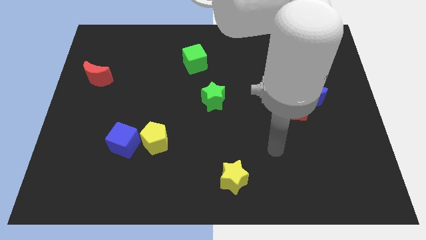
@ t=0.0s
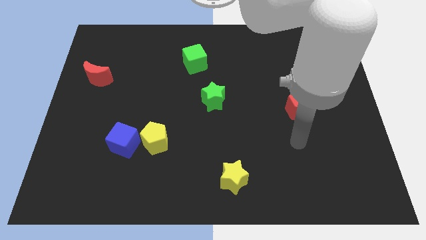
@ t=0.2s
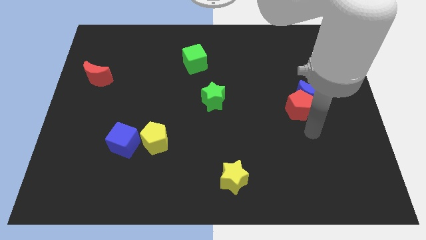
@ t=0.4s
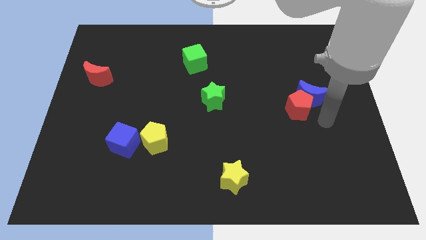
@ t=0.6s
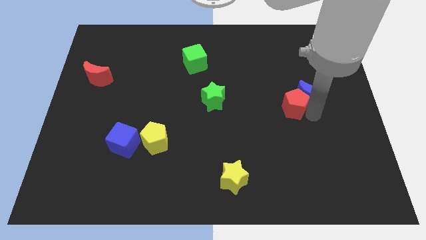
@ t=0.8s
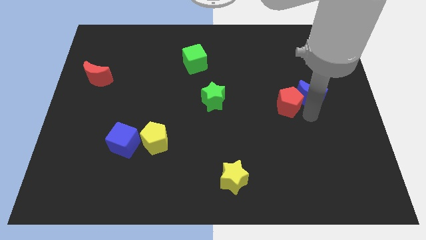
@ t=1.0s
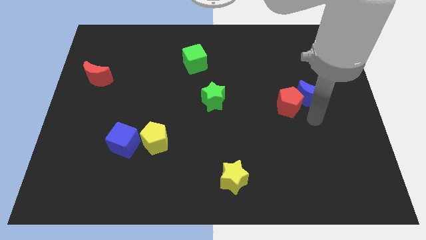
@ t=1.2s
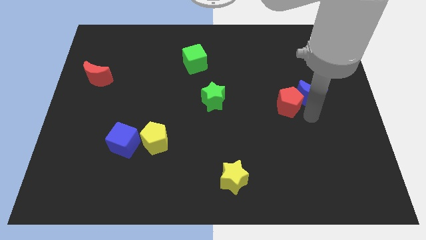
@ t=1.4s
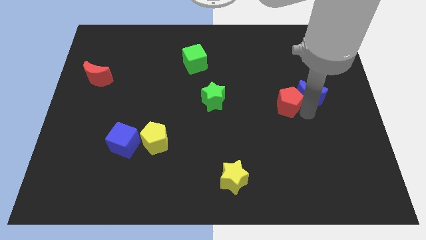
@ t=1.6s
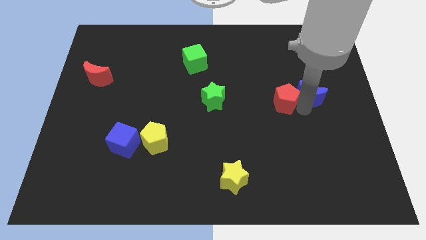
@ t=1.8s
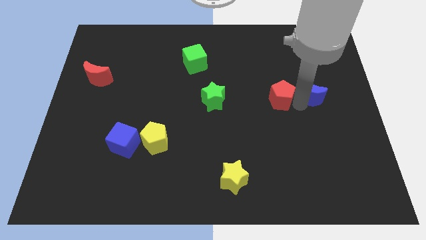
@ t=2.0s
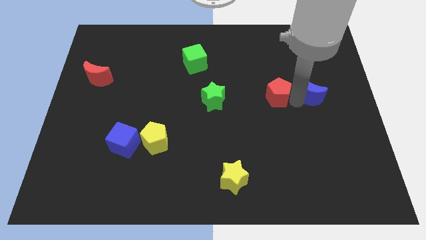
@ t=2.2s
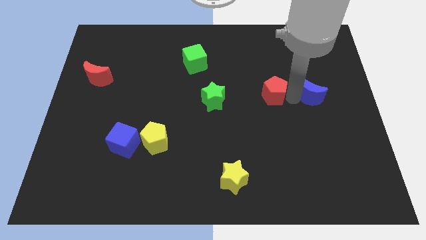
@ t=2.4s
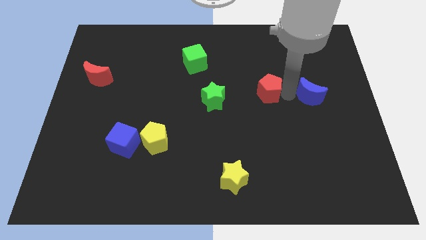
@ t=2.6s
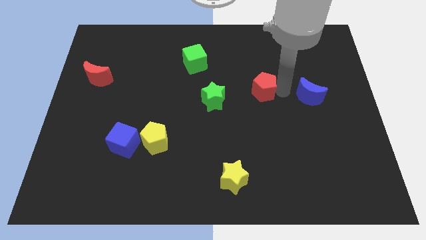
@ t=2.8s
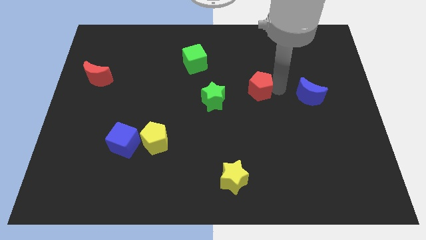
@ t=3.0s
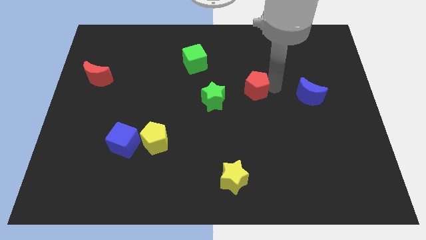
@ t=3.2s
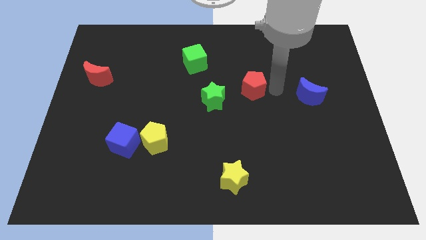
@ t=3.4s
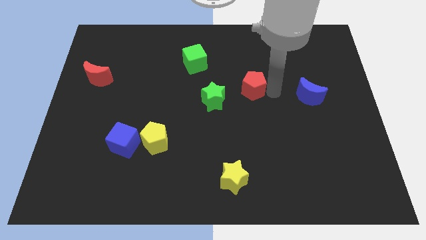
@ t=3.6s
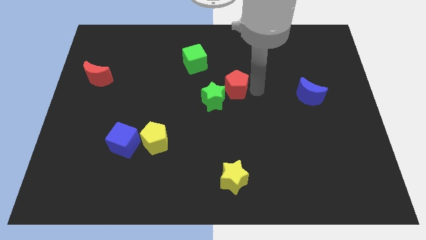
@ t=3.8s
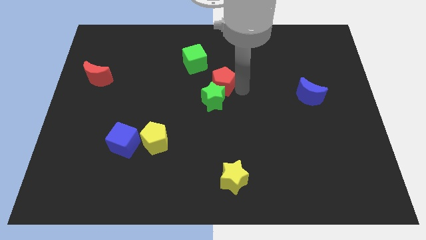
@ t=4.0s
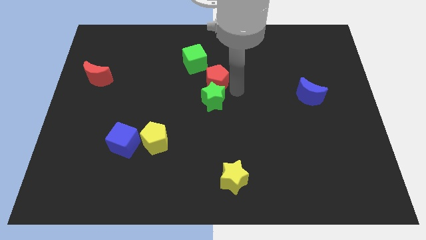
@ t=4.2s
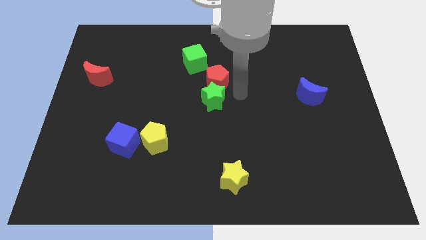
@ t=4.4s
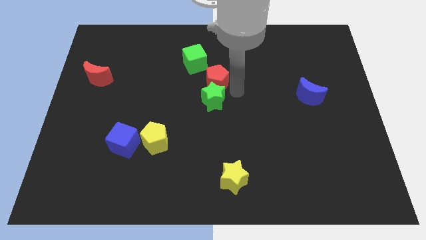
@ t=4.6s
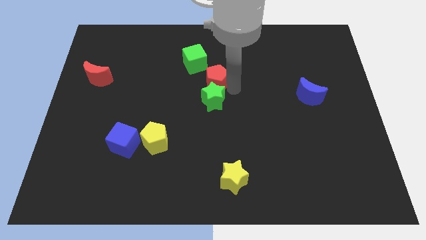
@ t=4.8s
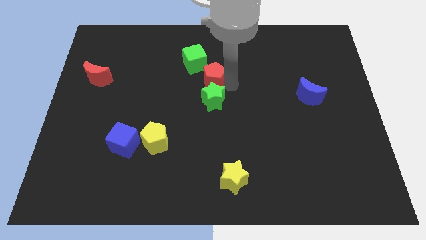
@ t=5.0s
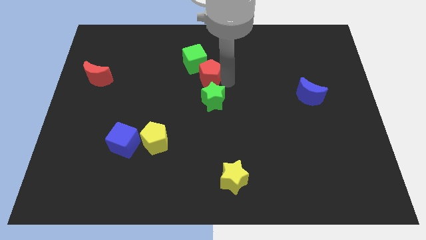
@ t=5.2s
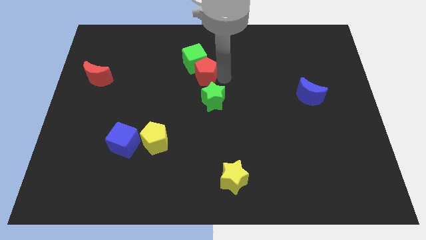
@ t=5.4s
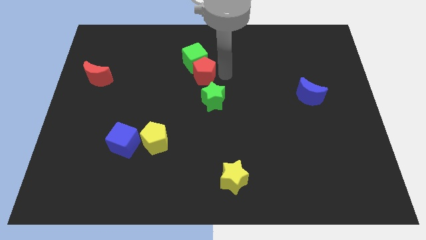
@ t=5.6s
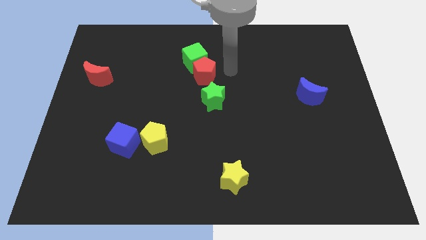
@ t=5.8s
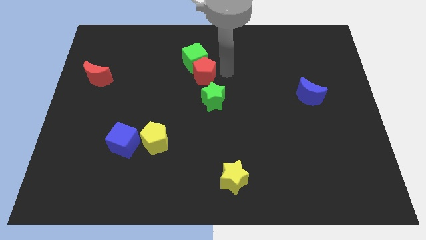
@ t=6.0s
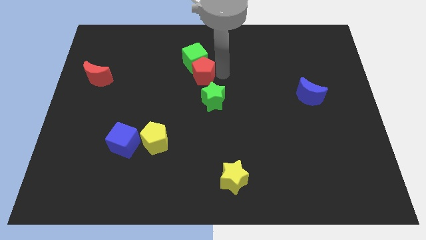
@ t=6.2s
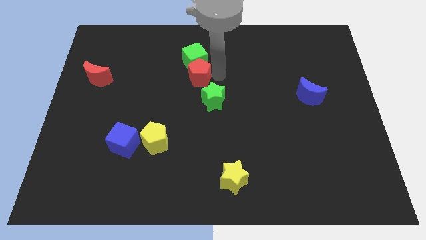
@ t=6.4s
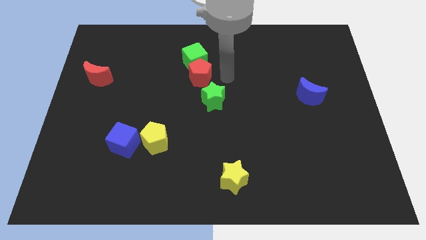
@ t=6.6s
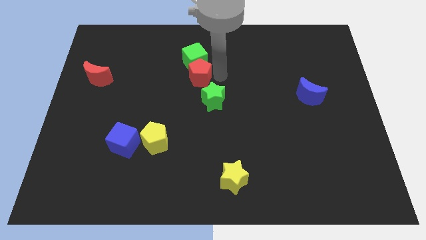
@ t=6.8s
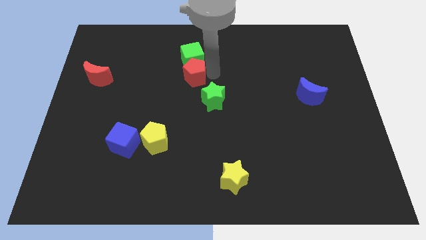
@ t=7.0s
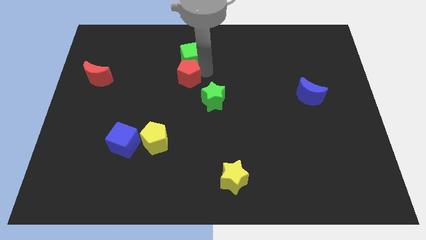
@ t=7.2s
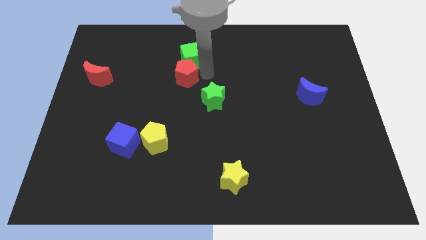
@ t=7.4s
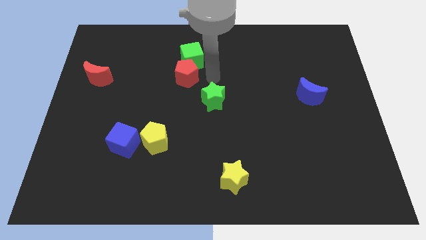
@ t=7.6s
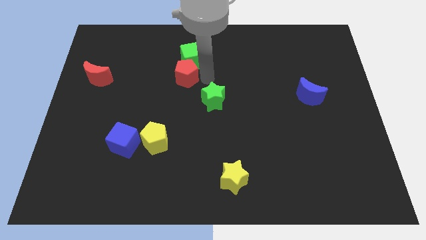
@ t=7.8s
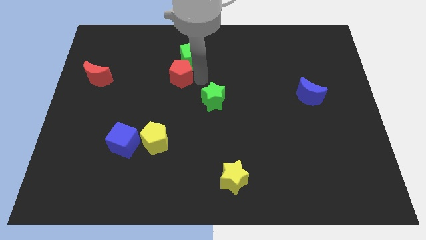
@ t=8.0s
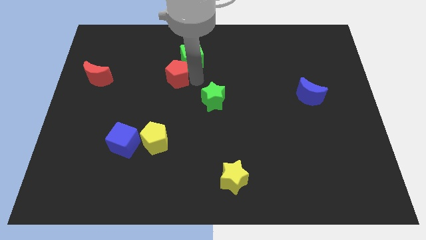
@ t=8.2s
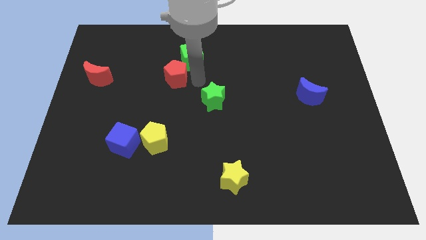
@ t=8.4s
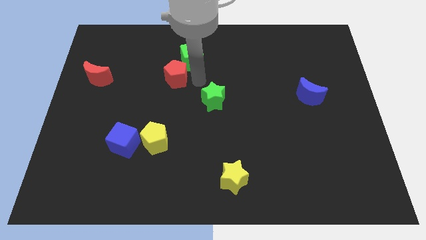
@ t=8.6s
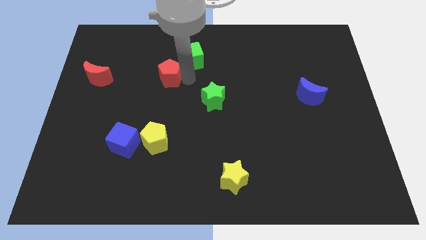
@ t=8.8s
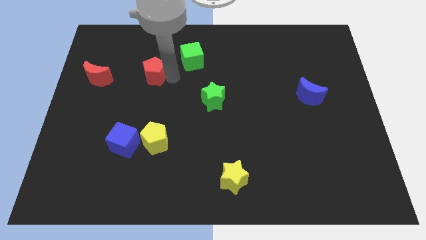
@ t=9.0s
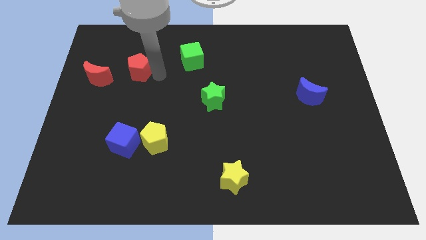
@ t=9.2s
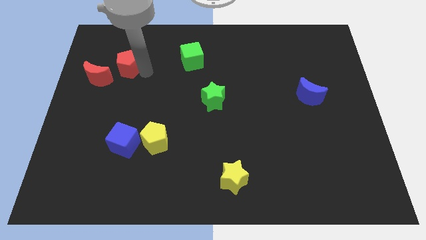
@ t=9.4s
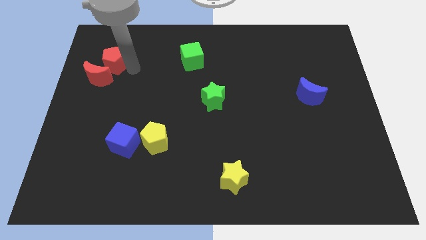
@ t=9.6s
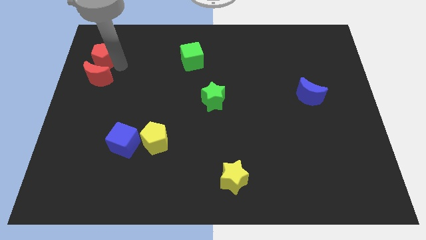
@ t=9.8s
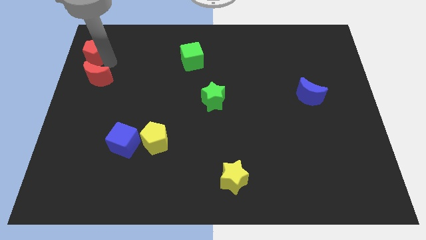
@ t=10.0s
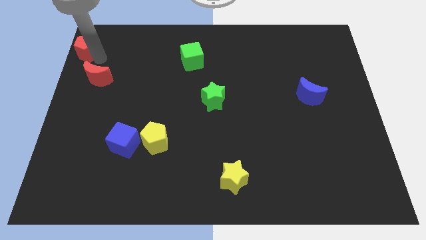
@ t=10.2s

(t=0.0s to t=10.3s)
slide the red pentagon to the top left corner
